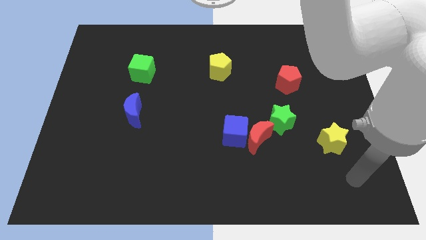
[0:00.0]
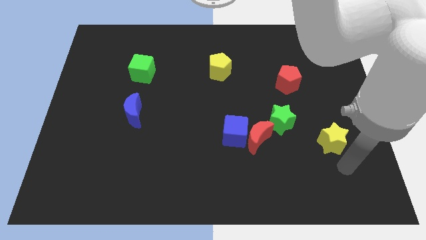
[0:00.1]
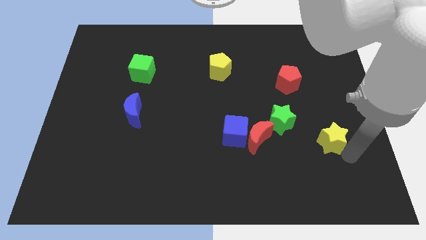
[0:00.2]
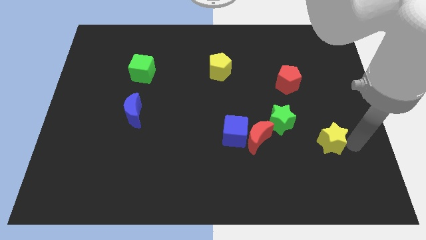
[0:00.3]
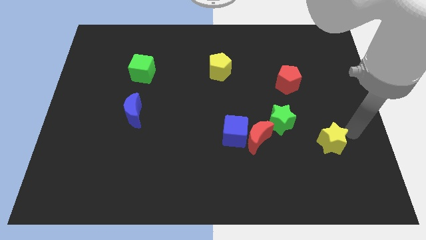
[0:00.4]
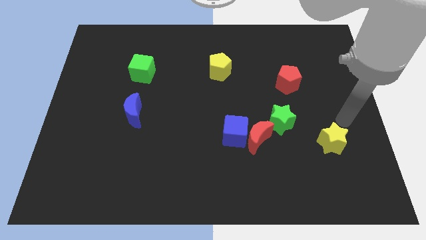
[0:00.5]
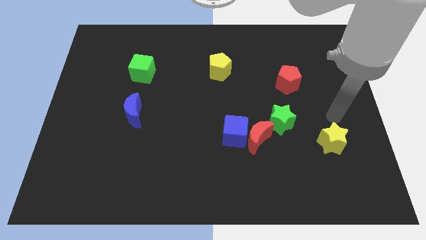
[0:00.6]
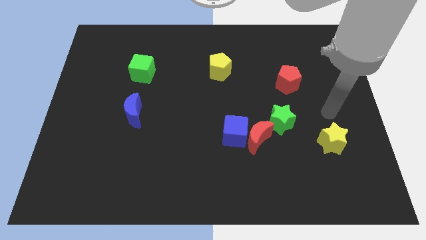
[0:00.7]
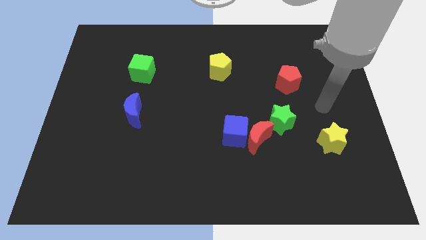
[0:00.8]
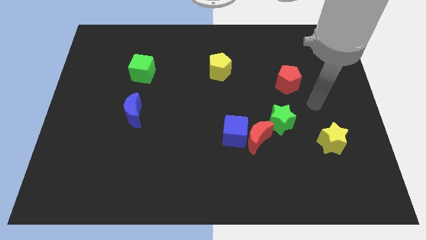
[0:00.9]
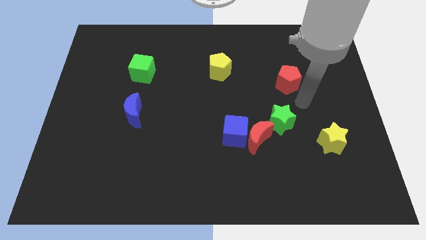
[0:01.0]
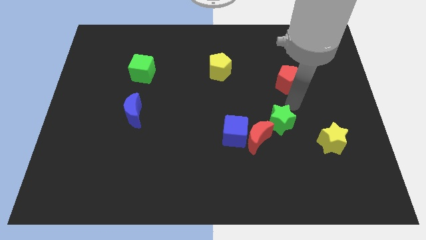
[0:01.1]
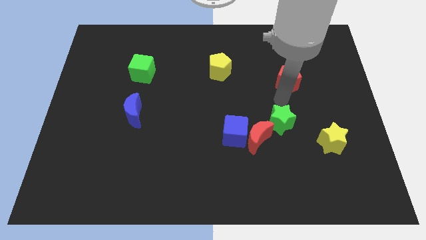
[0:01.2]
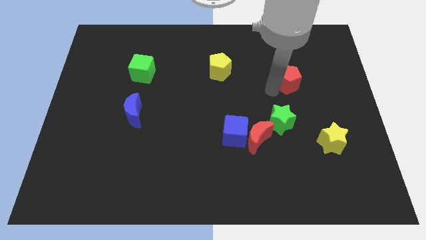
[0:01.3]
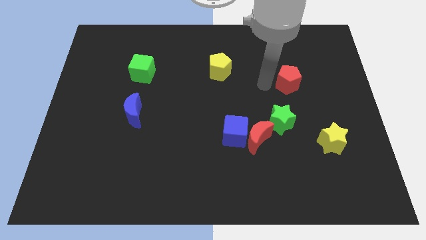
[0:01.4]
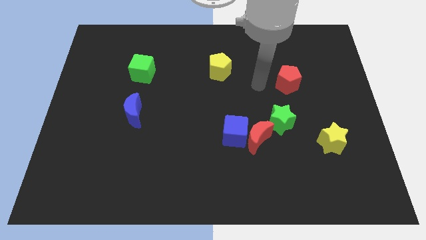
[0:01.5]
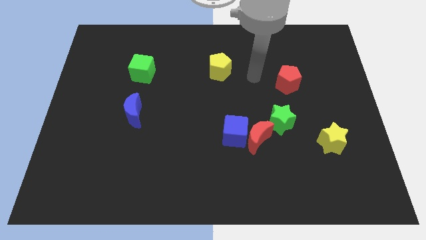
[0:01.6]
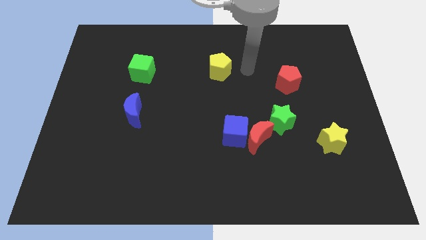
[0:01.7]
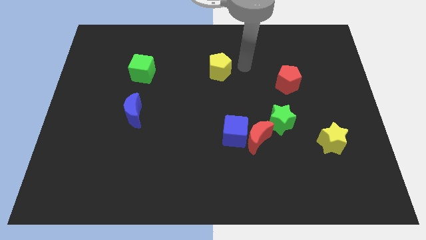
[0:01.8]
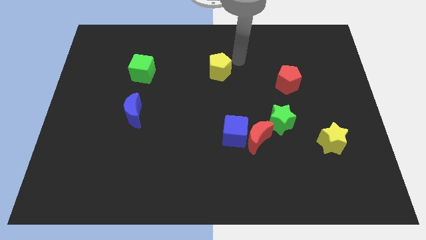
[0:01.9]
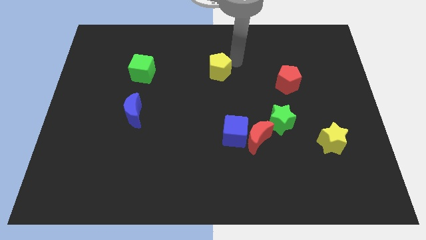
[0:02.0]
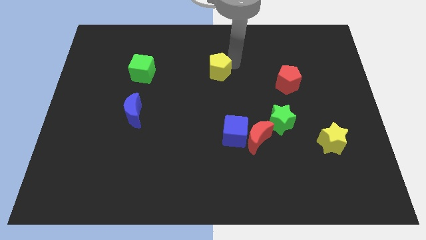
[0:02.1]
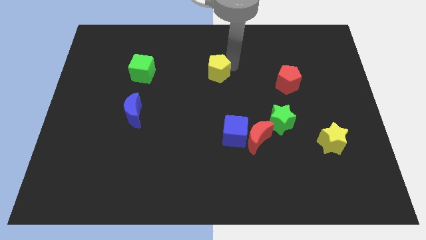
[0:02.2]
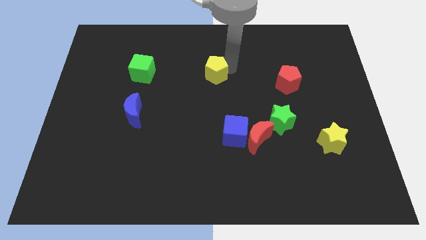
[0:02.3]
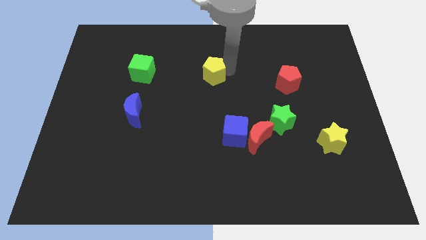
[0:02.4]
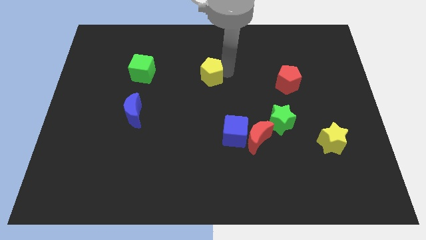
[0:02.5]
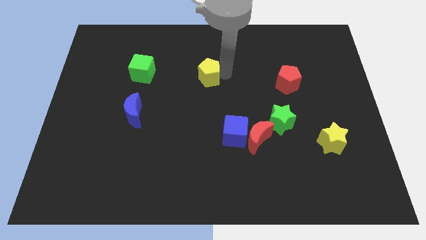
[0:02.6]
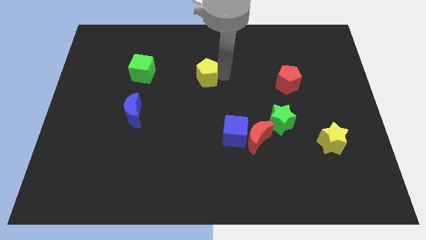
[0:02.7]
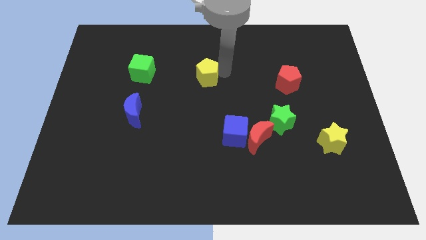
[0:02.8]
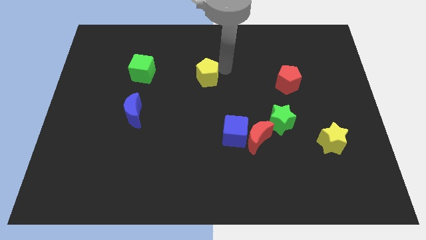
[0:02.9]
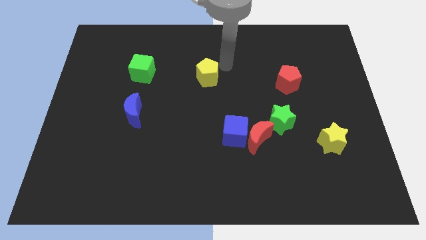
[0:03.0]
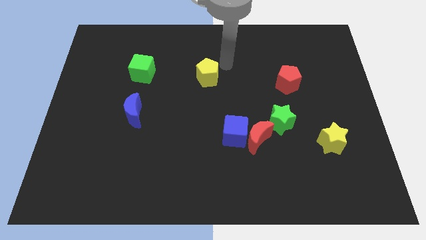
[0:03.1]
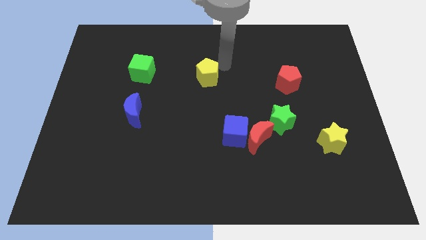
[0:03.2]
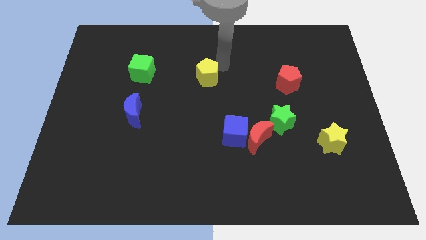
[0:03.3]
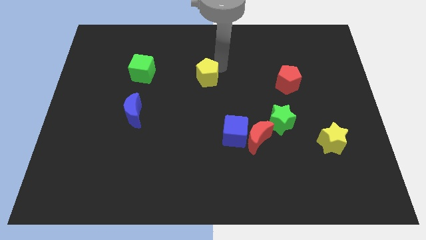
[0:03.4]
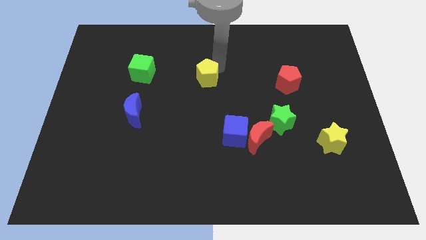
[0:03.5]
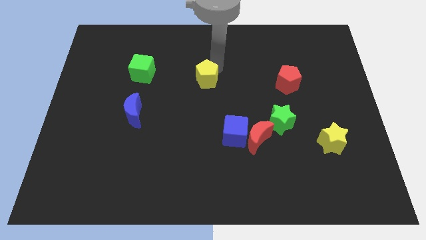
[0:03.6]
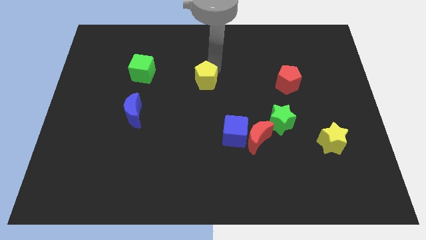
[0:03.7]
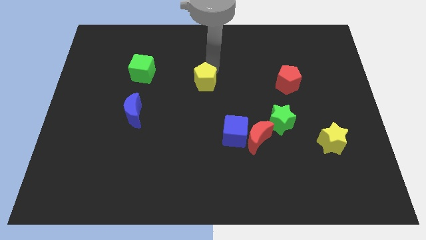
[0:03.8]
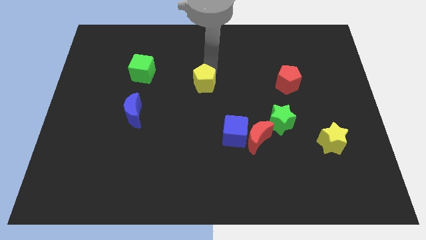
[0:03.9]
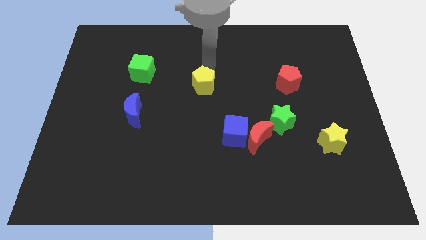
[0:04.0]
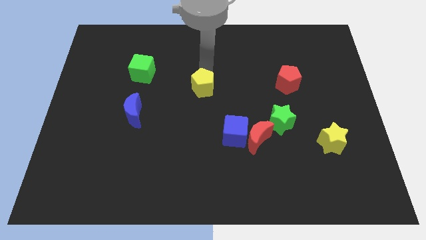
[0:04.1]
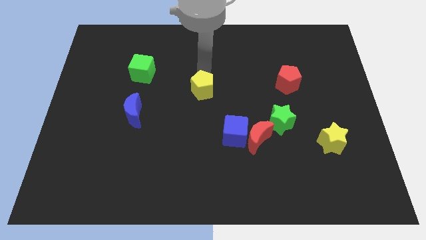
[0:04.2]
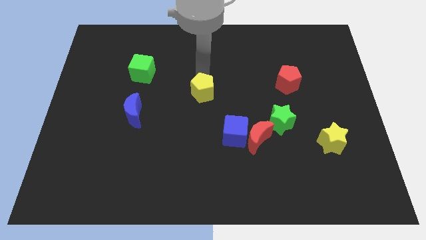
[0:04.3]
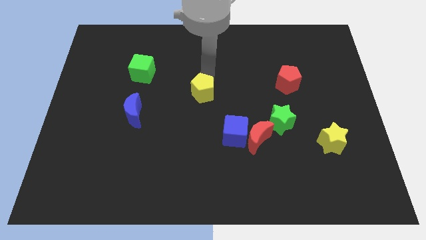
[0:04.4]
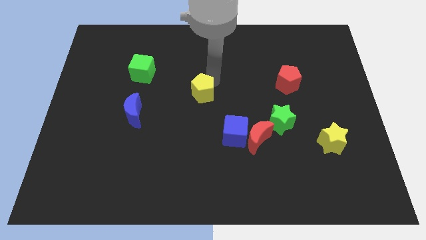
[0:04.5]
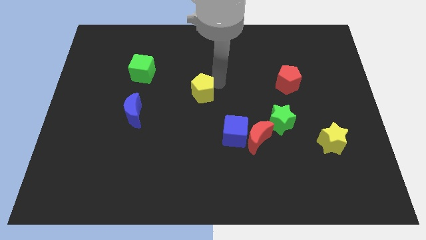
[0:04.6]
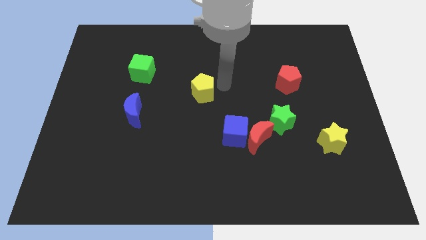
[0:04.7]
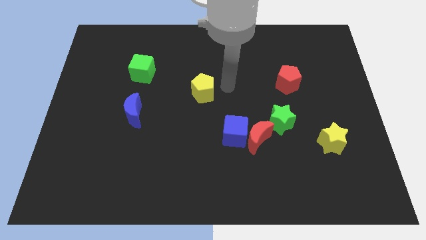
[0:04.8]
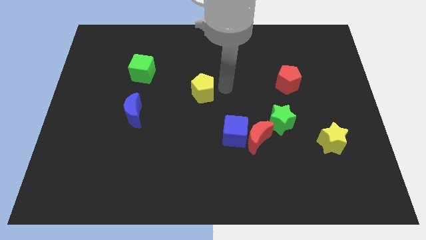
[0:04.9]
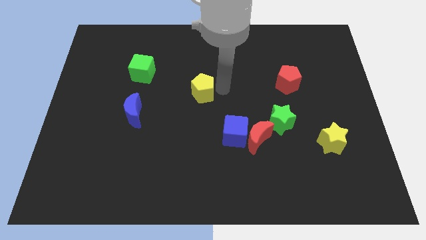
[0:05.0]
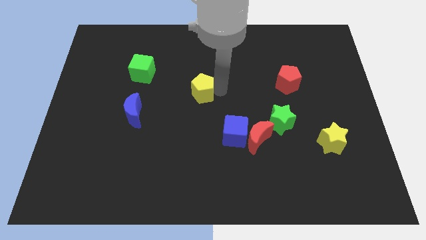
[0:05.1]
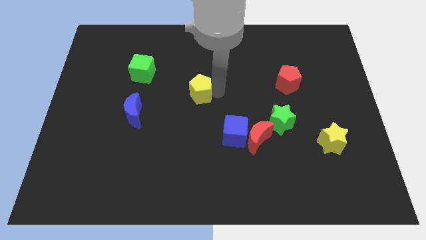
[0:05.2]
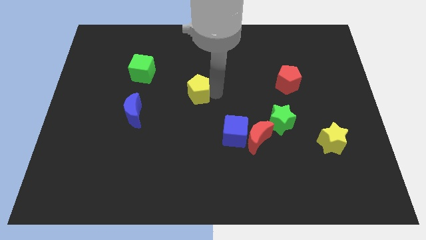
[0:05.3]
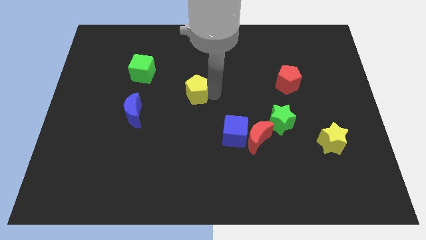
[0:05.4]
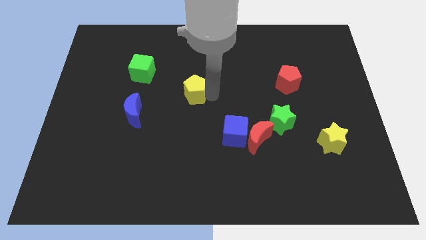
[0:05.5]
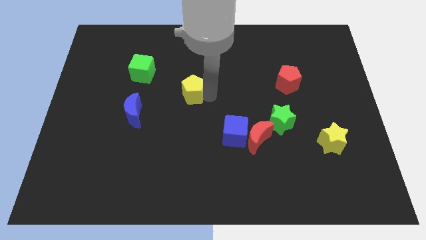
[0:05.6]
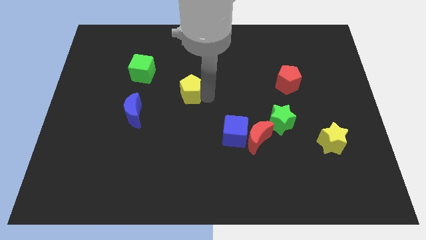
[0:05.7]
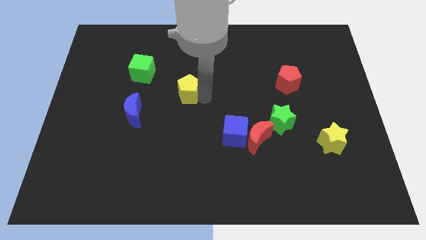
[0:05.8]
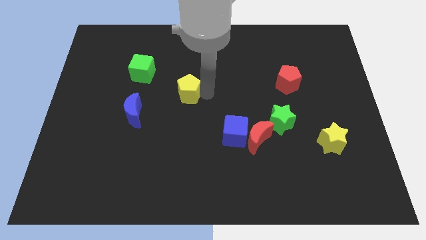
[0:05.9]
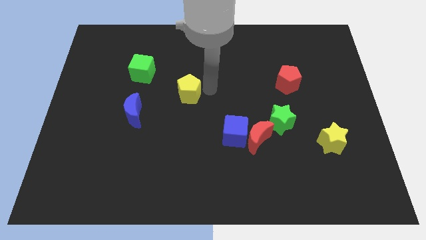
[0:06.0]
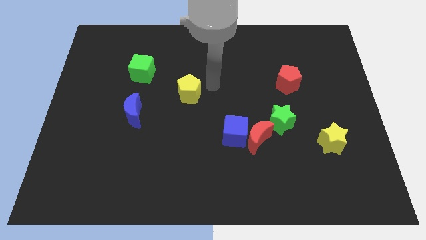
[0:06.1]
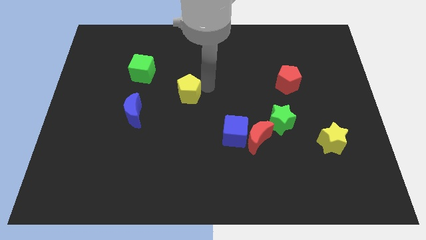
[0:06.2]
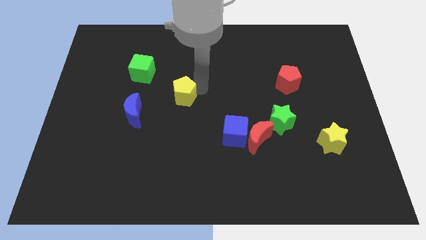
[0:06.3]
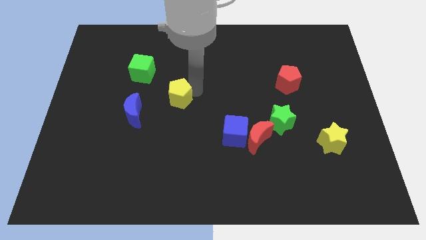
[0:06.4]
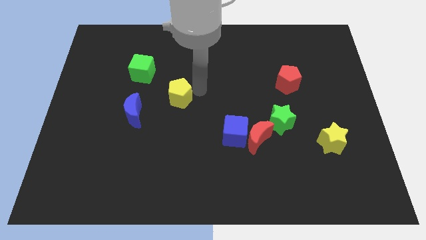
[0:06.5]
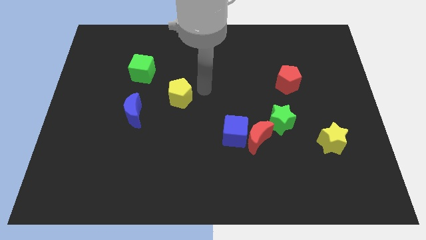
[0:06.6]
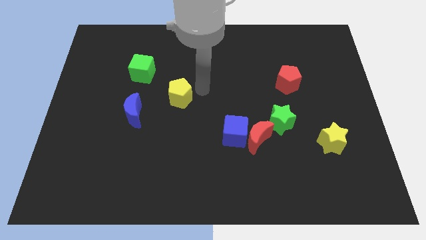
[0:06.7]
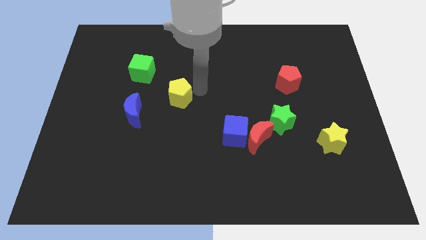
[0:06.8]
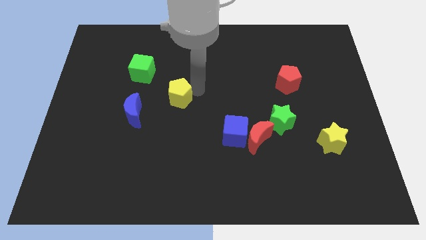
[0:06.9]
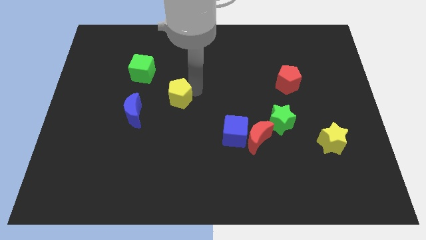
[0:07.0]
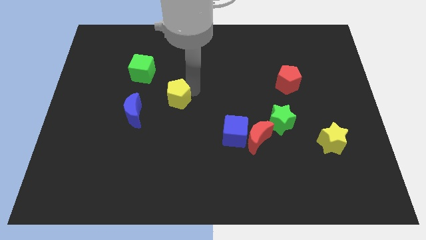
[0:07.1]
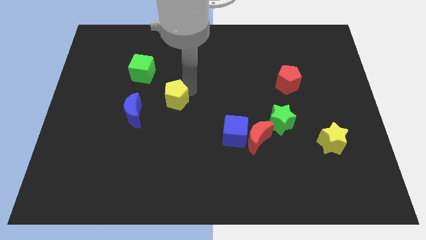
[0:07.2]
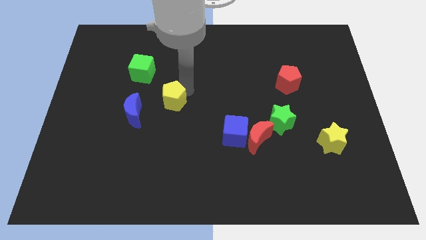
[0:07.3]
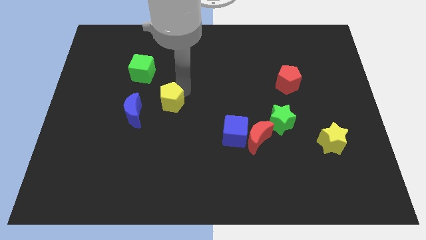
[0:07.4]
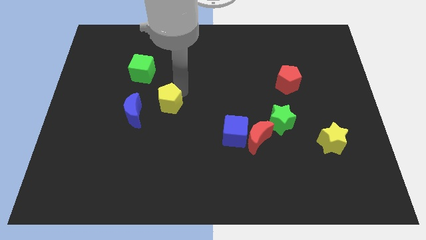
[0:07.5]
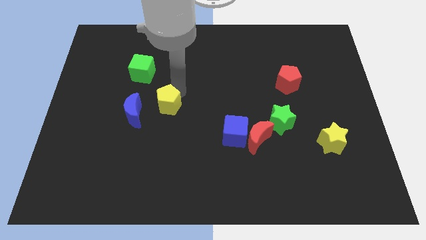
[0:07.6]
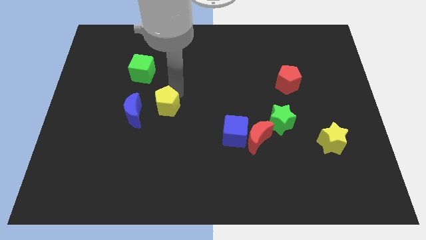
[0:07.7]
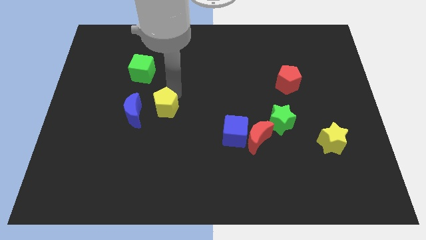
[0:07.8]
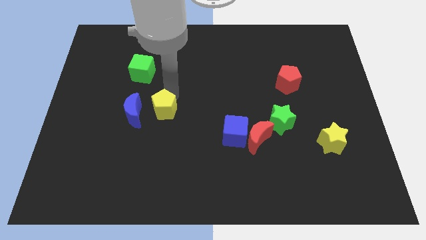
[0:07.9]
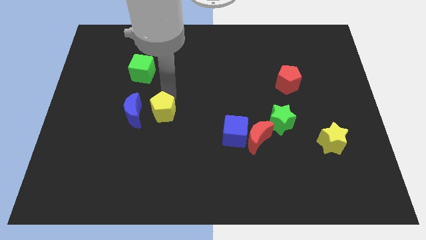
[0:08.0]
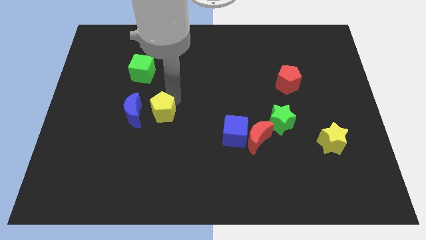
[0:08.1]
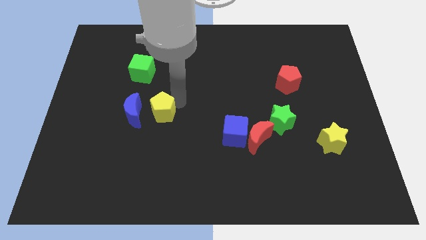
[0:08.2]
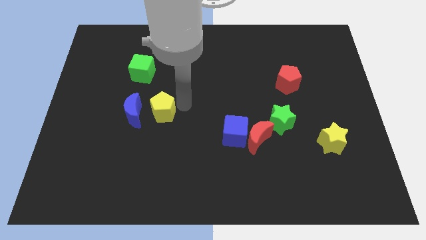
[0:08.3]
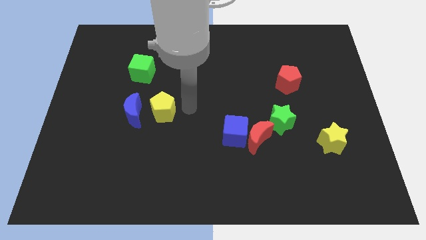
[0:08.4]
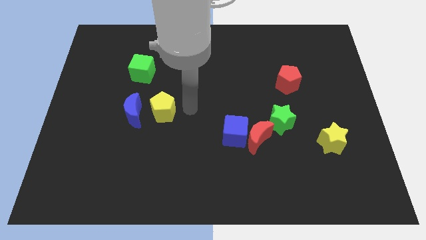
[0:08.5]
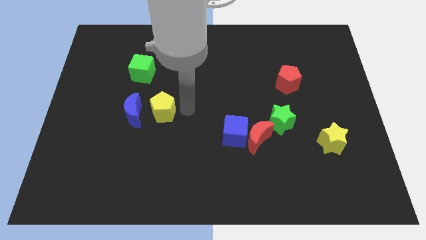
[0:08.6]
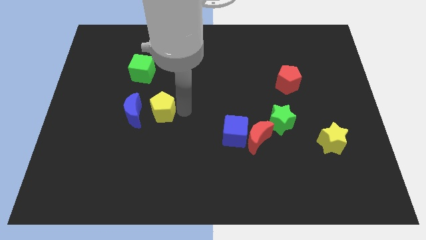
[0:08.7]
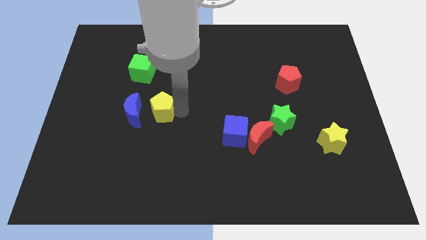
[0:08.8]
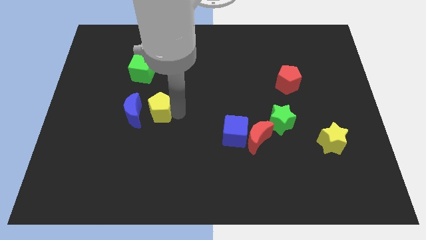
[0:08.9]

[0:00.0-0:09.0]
move the yellow pentagon close to the blue moon
